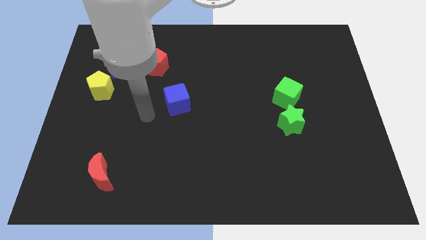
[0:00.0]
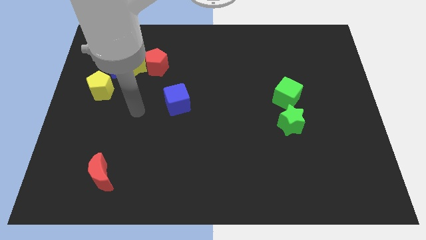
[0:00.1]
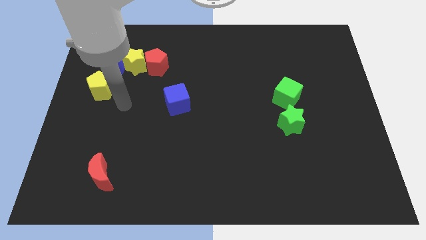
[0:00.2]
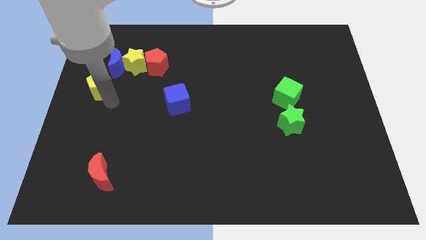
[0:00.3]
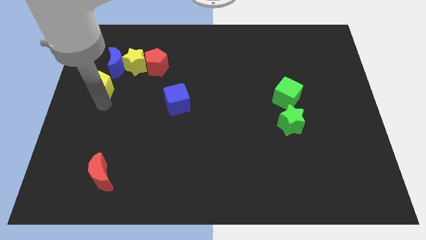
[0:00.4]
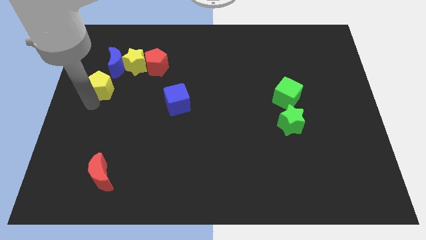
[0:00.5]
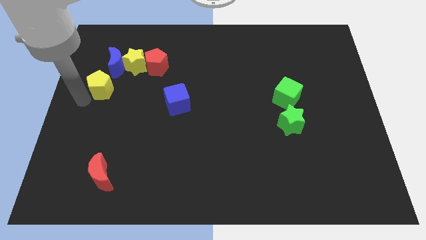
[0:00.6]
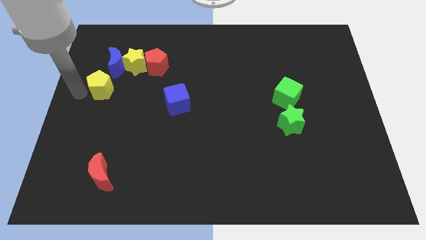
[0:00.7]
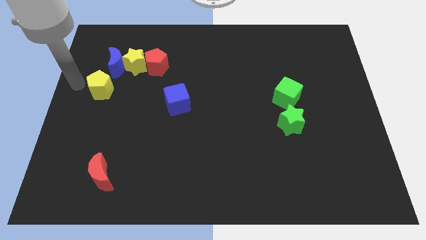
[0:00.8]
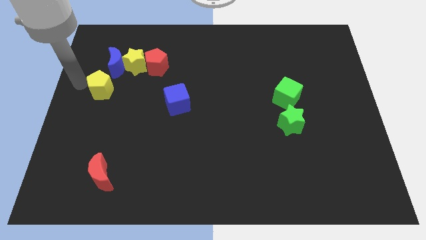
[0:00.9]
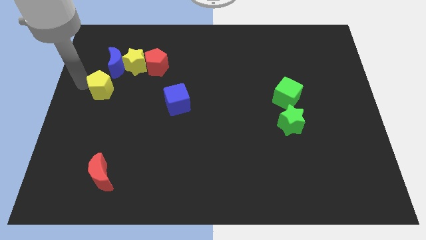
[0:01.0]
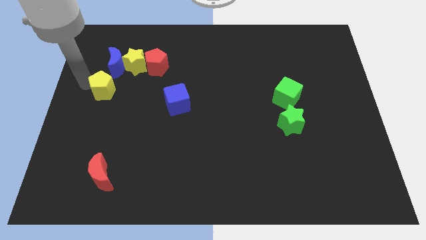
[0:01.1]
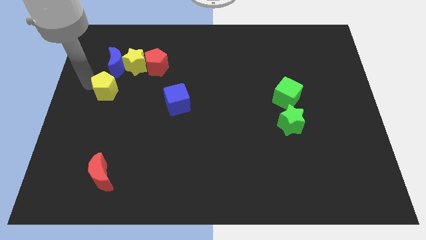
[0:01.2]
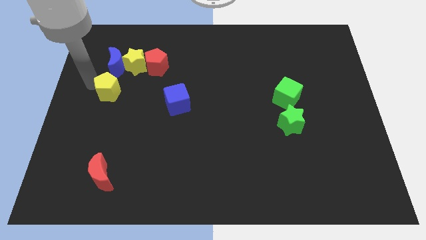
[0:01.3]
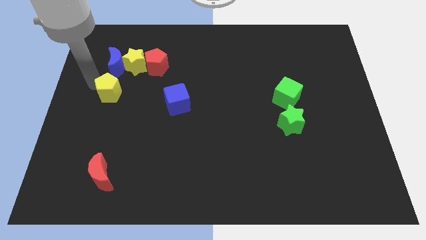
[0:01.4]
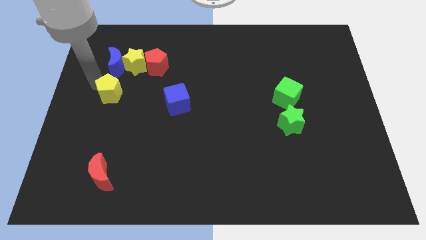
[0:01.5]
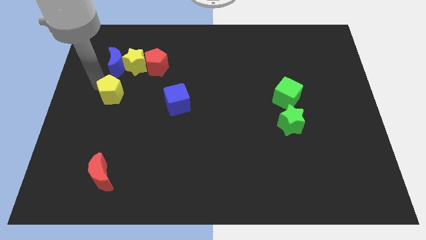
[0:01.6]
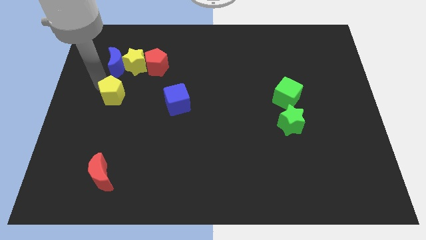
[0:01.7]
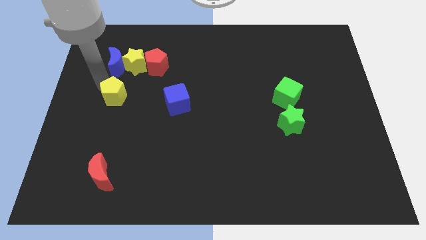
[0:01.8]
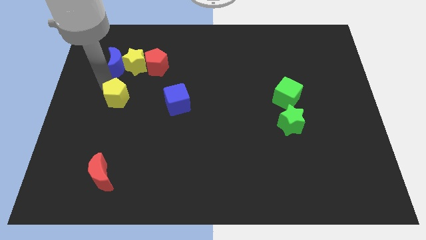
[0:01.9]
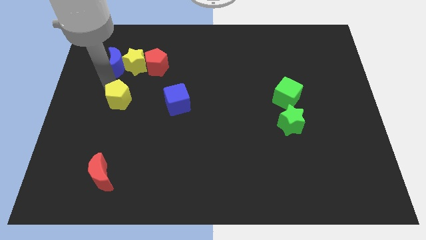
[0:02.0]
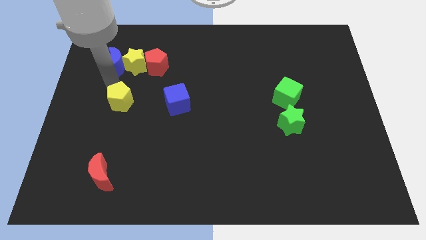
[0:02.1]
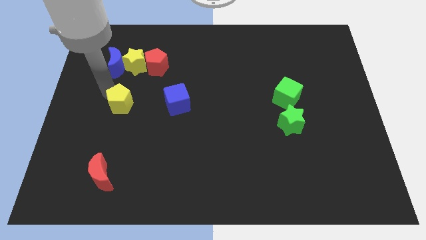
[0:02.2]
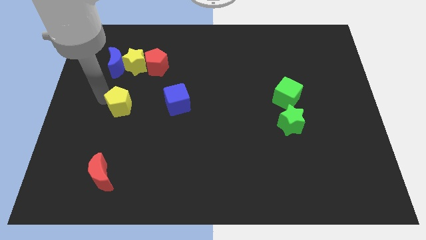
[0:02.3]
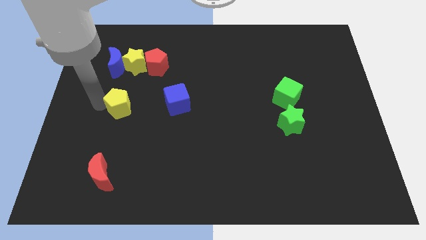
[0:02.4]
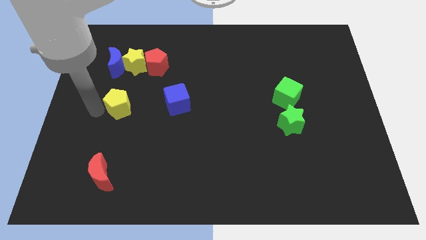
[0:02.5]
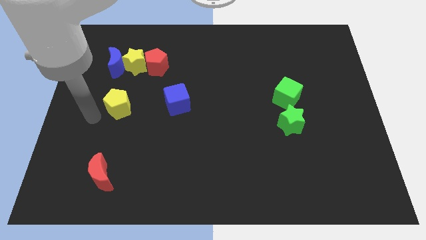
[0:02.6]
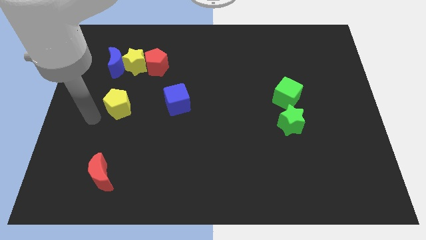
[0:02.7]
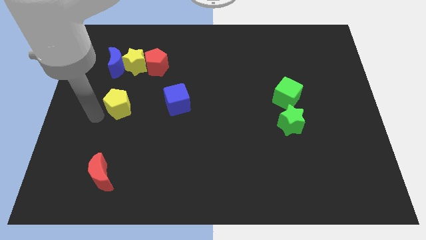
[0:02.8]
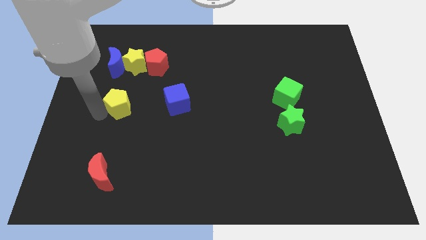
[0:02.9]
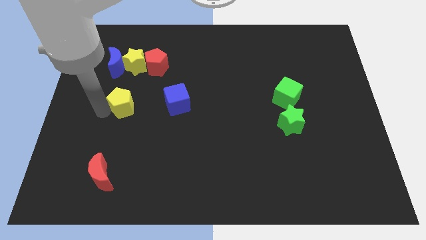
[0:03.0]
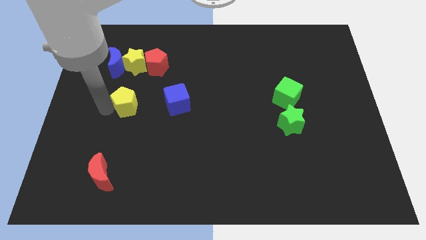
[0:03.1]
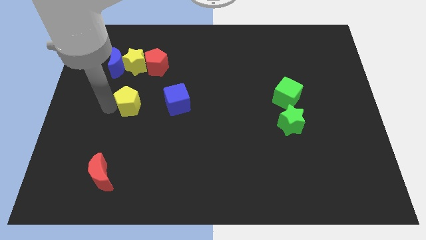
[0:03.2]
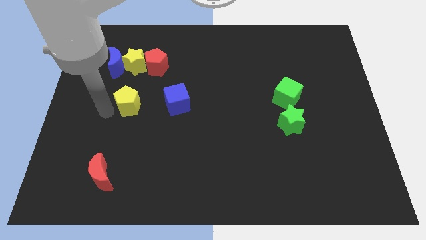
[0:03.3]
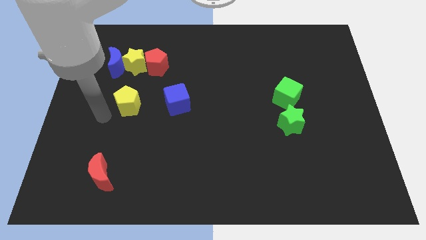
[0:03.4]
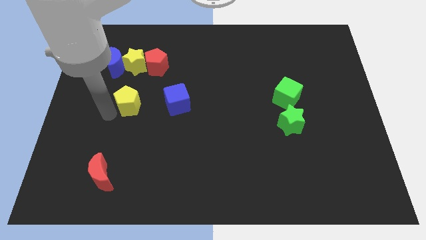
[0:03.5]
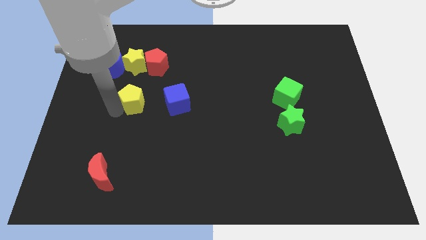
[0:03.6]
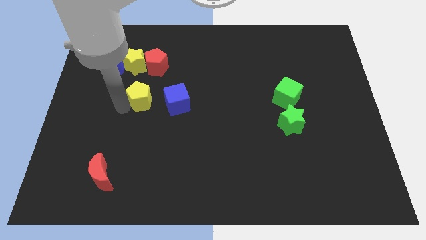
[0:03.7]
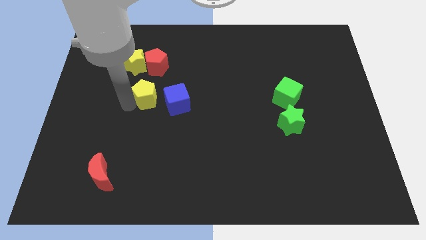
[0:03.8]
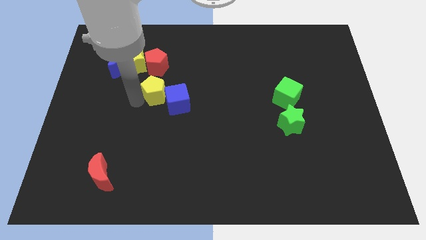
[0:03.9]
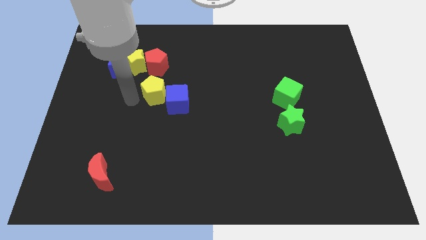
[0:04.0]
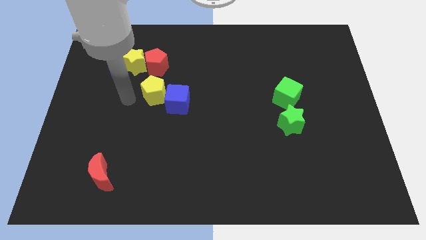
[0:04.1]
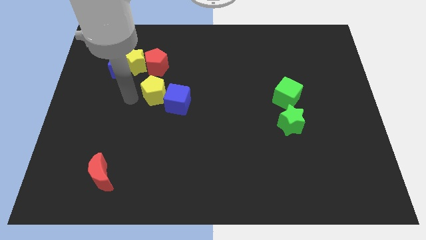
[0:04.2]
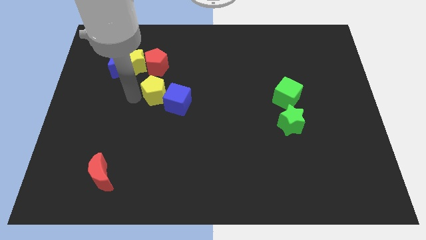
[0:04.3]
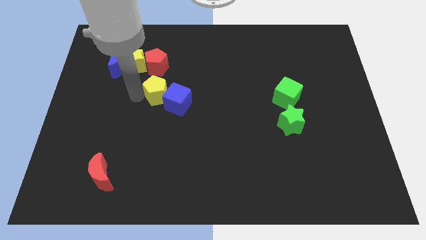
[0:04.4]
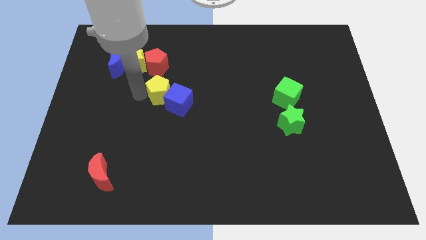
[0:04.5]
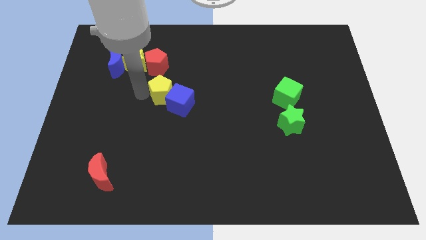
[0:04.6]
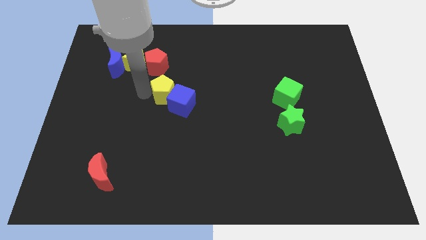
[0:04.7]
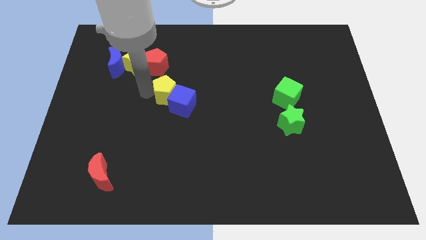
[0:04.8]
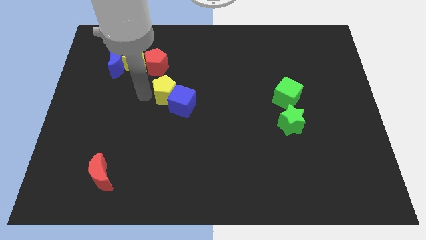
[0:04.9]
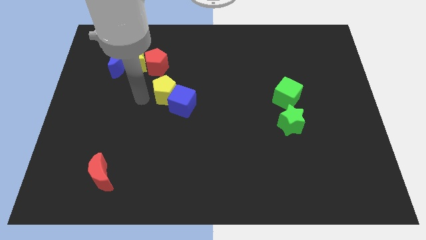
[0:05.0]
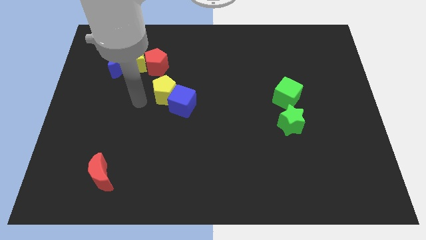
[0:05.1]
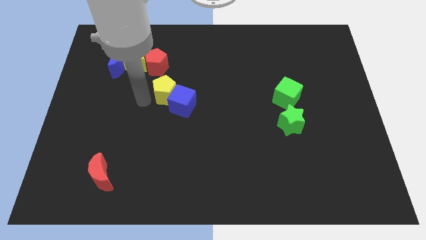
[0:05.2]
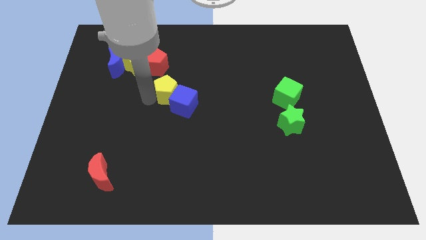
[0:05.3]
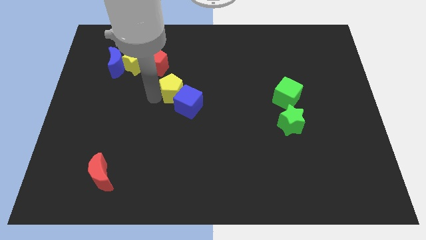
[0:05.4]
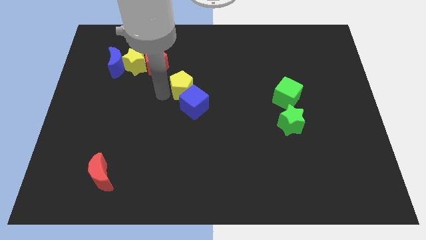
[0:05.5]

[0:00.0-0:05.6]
move the yellow pentagon to the right

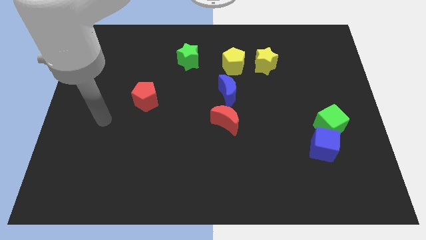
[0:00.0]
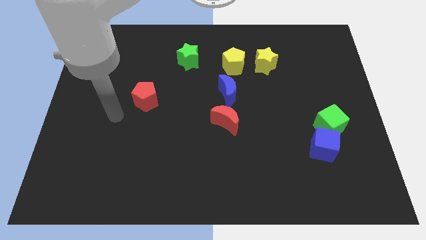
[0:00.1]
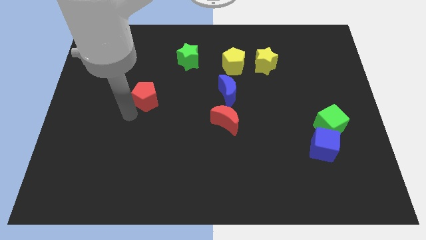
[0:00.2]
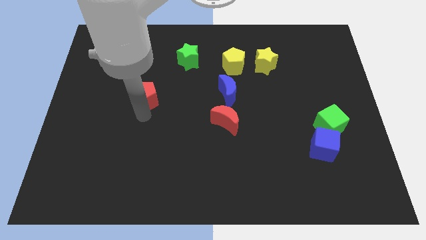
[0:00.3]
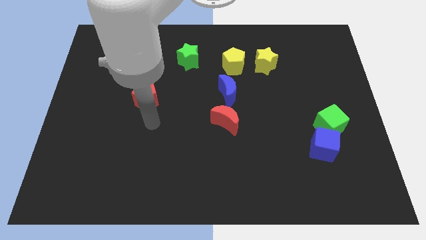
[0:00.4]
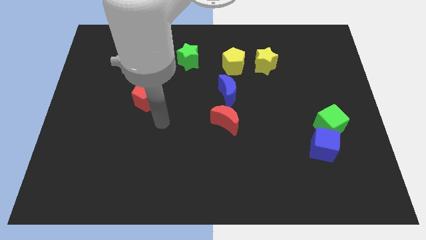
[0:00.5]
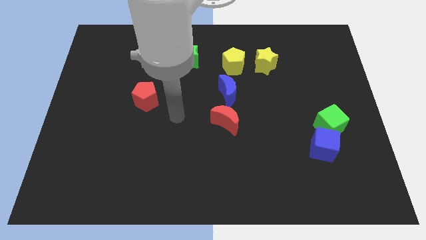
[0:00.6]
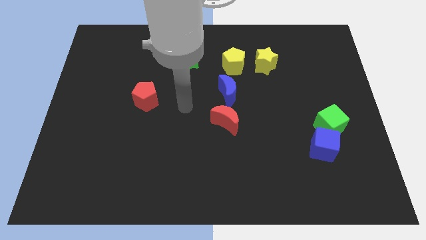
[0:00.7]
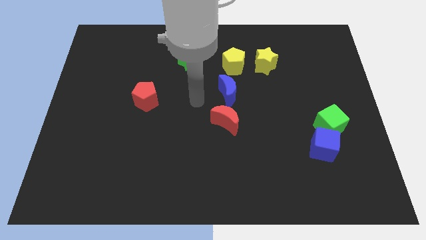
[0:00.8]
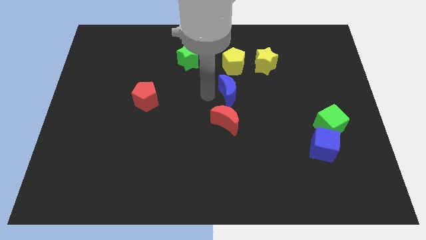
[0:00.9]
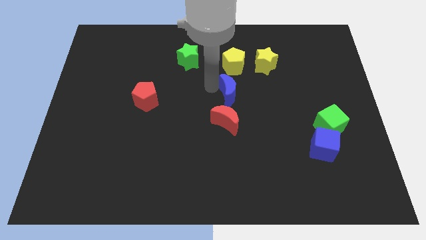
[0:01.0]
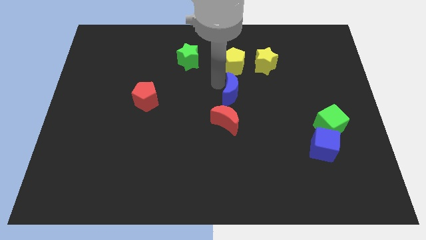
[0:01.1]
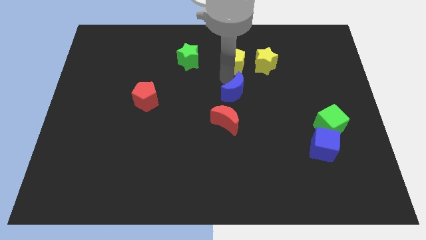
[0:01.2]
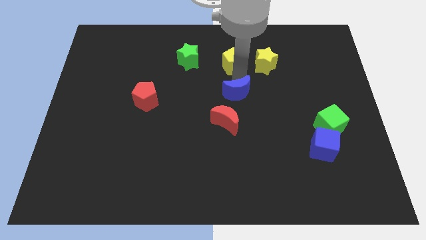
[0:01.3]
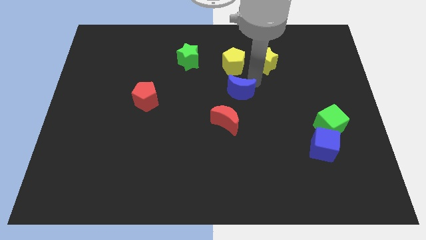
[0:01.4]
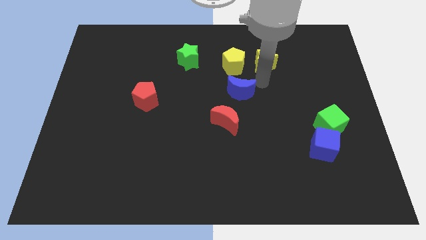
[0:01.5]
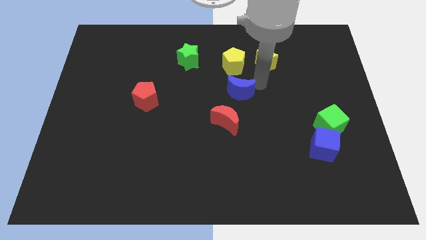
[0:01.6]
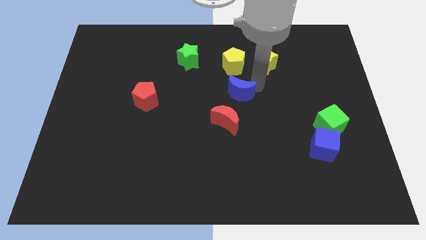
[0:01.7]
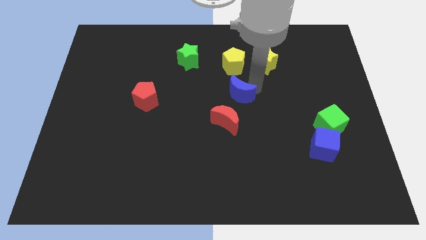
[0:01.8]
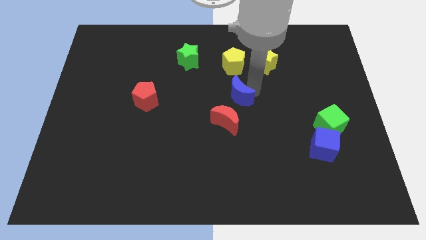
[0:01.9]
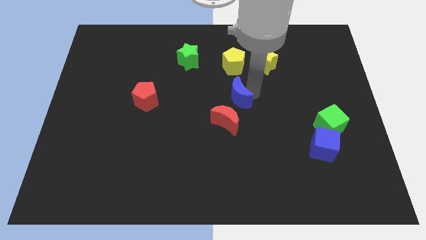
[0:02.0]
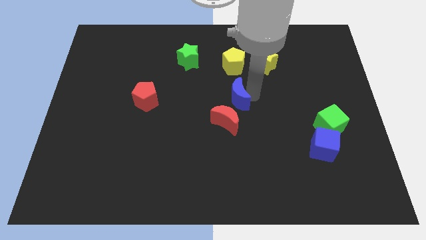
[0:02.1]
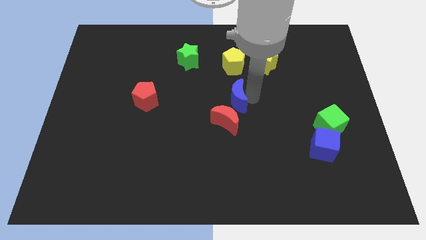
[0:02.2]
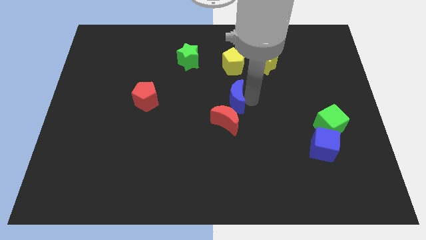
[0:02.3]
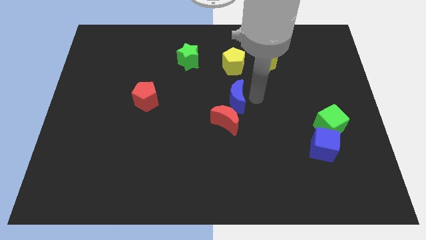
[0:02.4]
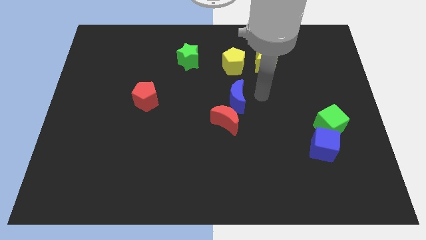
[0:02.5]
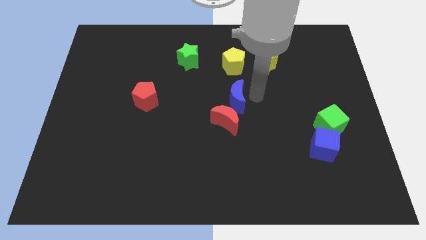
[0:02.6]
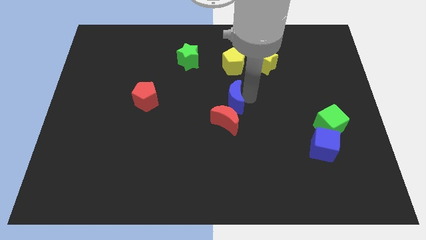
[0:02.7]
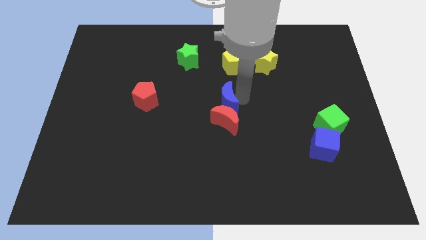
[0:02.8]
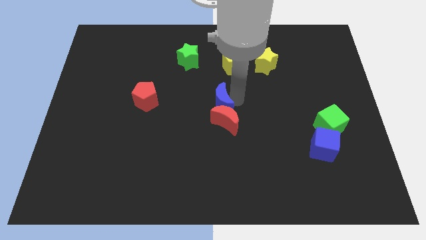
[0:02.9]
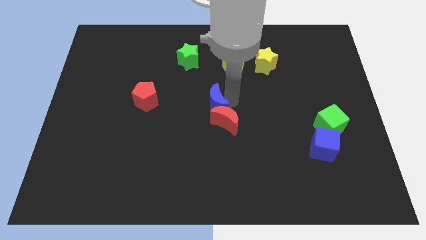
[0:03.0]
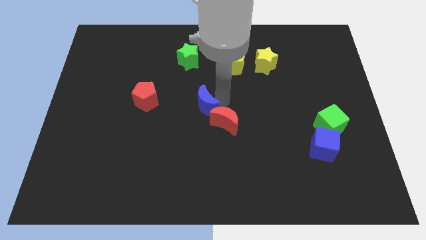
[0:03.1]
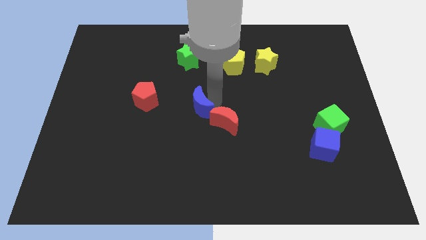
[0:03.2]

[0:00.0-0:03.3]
slide the blue moon a little diagonally downwards and to the left
